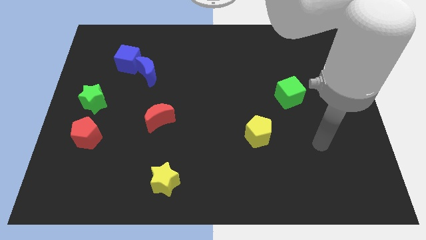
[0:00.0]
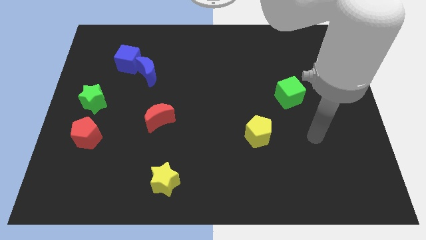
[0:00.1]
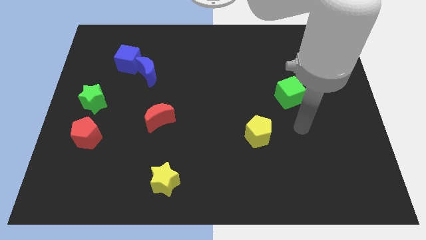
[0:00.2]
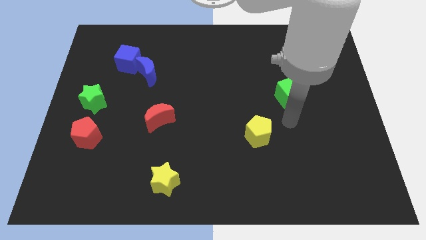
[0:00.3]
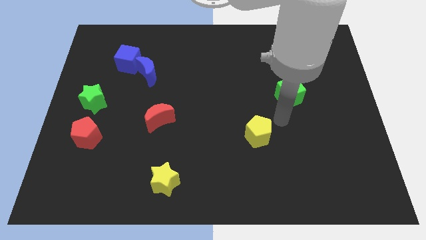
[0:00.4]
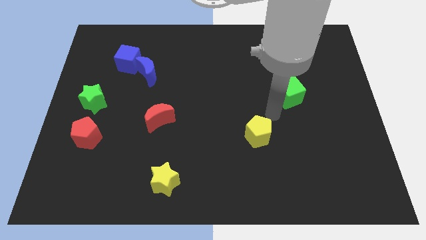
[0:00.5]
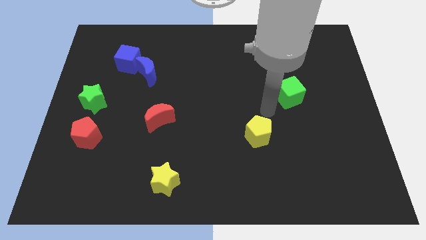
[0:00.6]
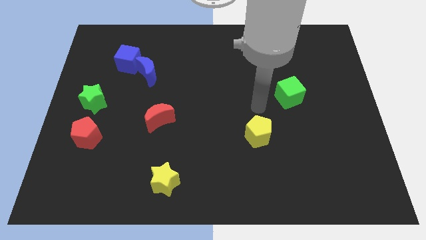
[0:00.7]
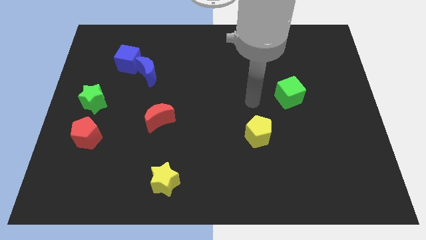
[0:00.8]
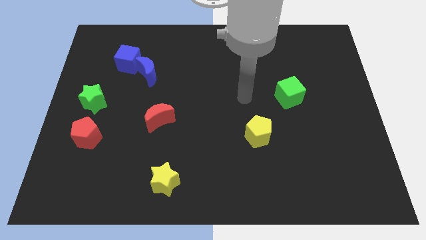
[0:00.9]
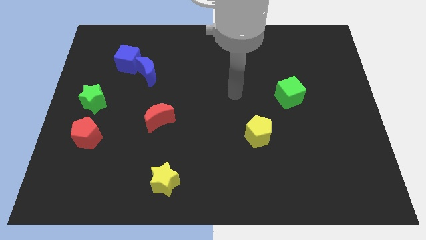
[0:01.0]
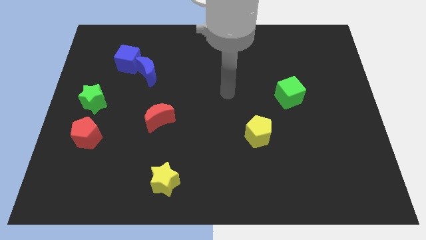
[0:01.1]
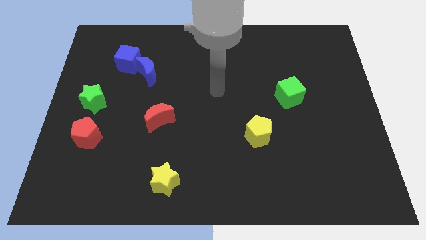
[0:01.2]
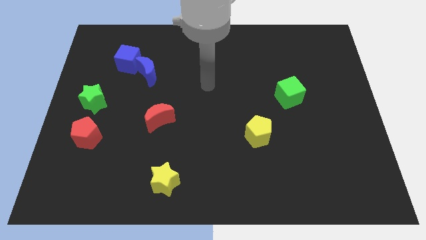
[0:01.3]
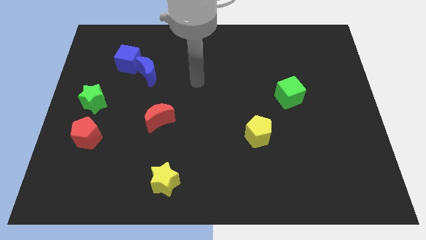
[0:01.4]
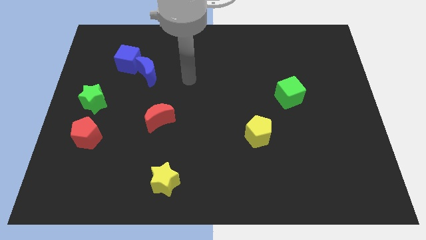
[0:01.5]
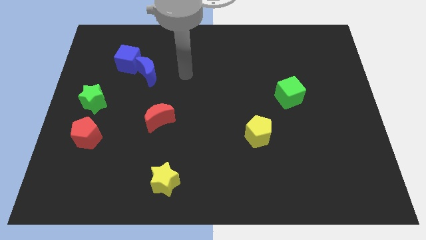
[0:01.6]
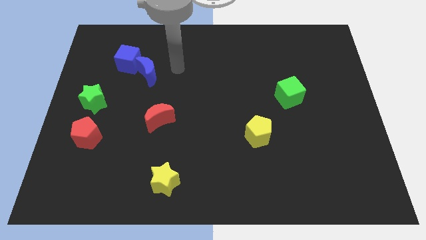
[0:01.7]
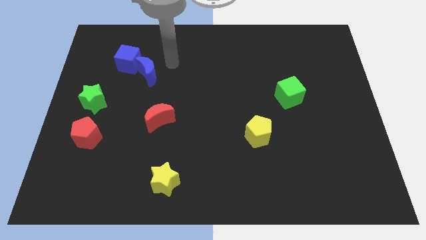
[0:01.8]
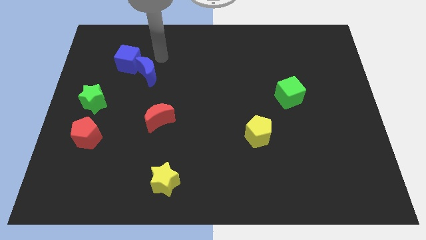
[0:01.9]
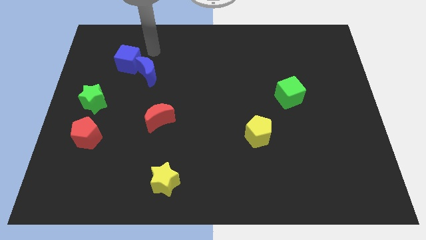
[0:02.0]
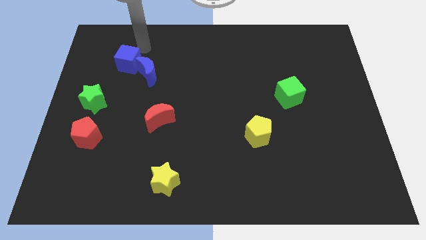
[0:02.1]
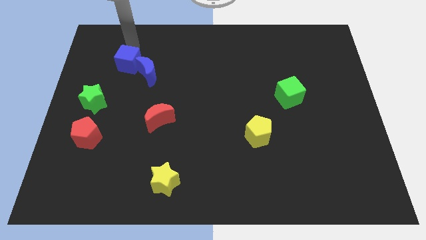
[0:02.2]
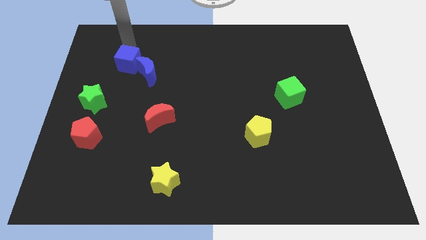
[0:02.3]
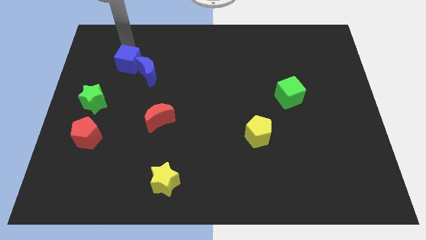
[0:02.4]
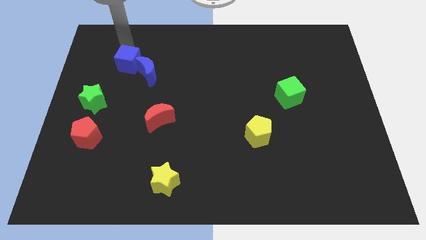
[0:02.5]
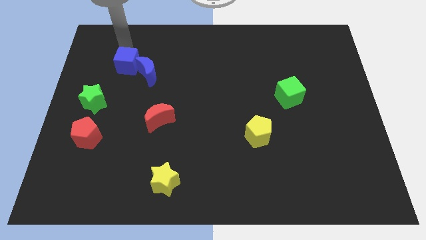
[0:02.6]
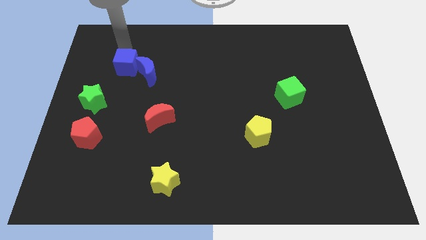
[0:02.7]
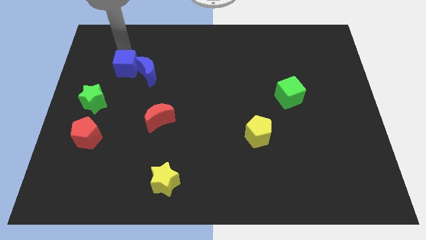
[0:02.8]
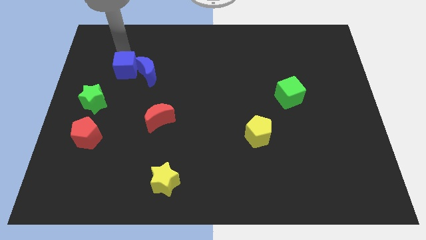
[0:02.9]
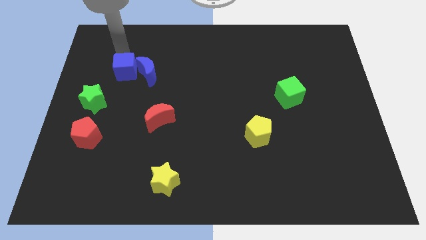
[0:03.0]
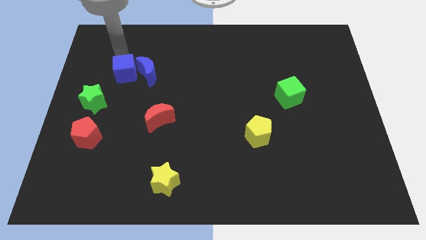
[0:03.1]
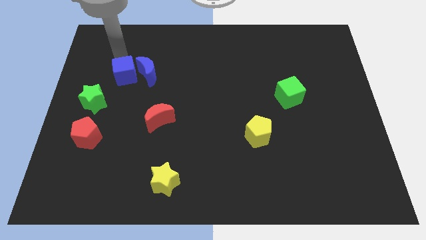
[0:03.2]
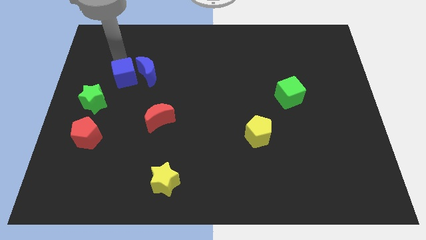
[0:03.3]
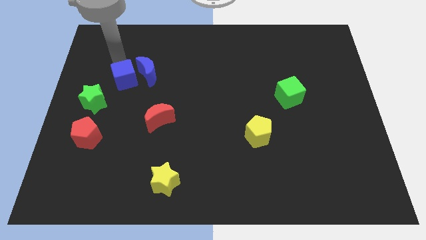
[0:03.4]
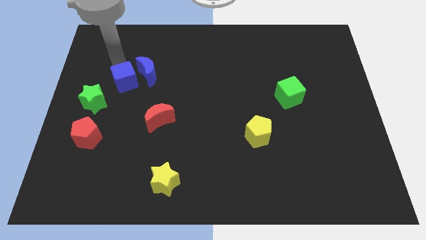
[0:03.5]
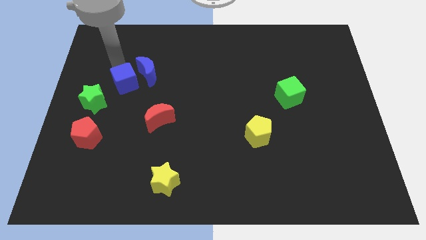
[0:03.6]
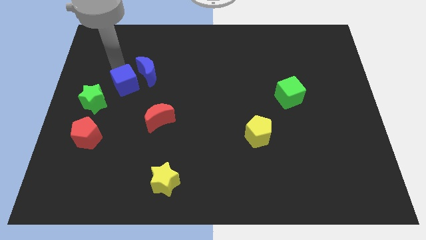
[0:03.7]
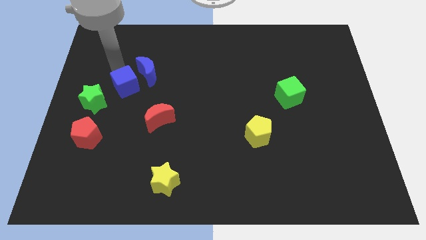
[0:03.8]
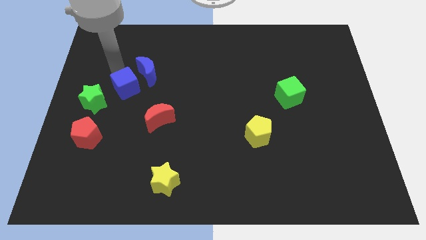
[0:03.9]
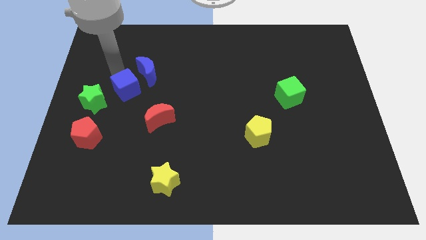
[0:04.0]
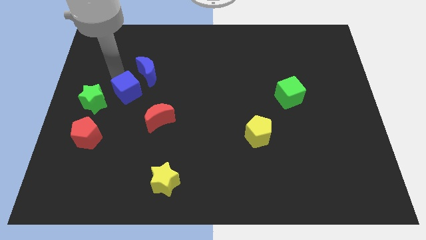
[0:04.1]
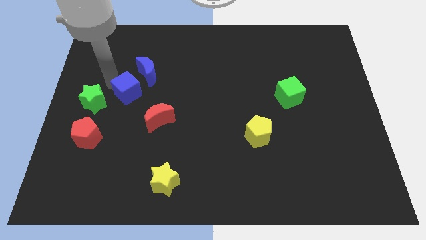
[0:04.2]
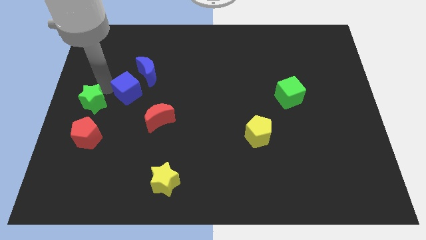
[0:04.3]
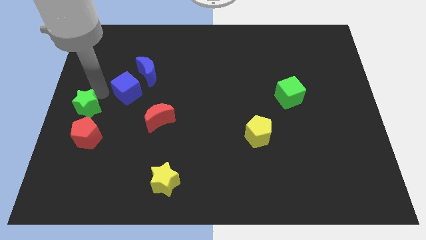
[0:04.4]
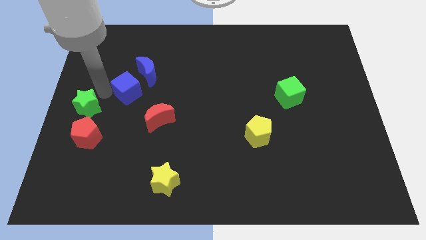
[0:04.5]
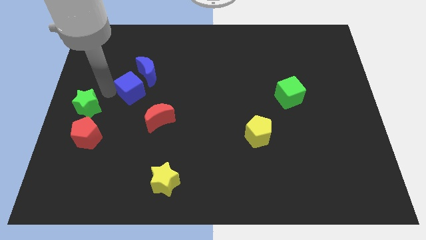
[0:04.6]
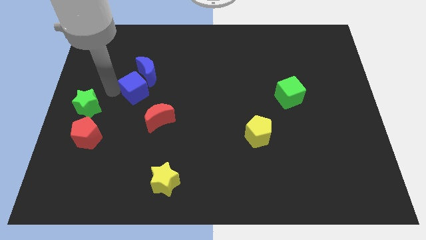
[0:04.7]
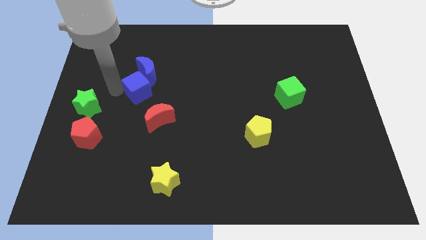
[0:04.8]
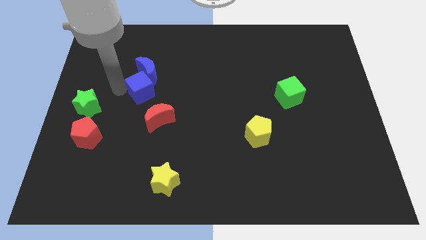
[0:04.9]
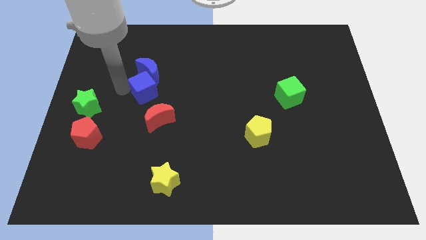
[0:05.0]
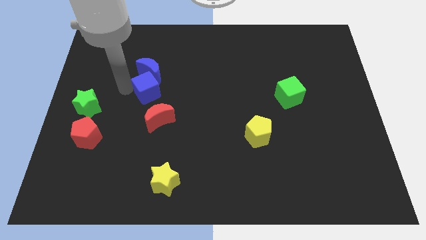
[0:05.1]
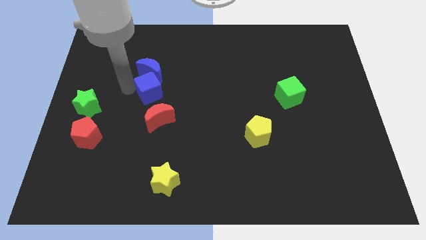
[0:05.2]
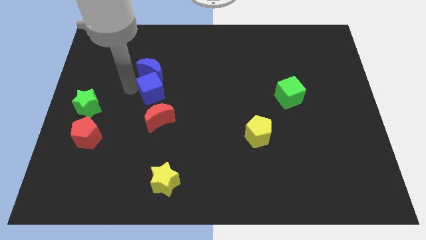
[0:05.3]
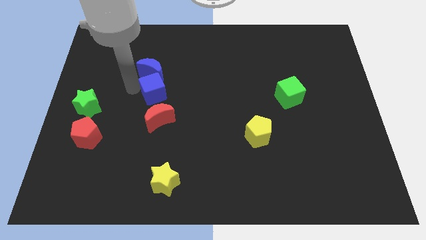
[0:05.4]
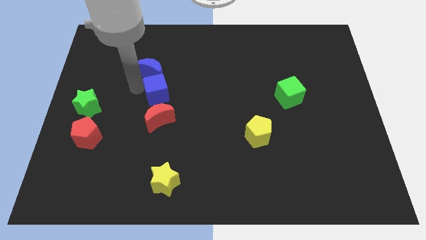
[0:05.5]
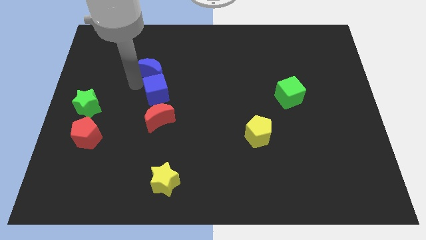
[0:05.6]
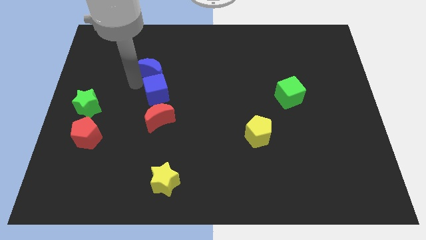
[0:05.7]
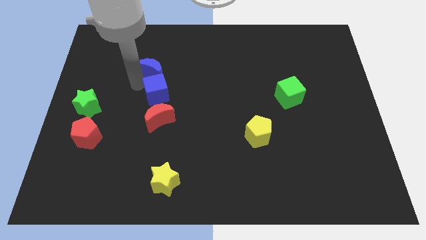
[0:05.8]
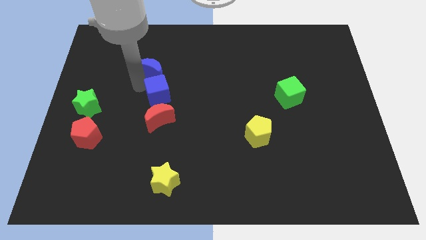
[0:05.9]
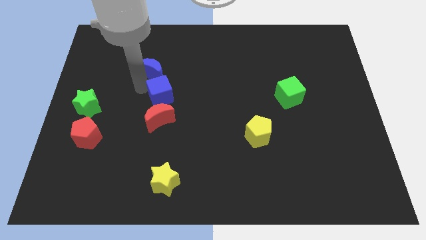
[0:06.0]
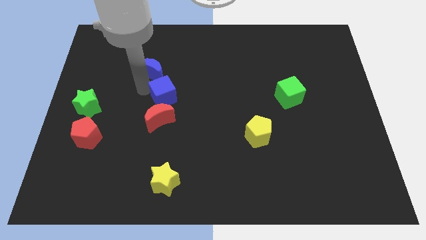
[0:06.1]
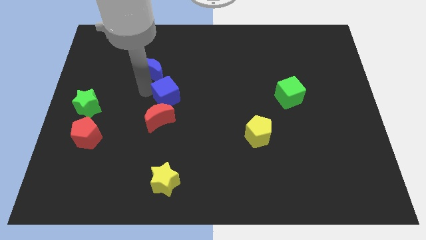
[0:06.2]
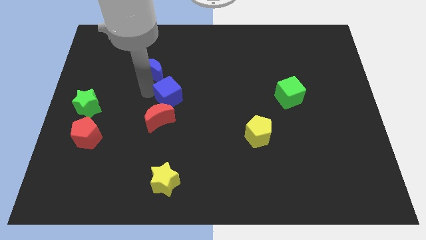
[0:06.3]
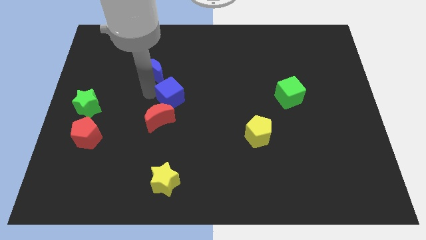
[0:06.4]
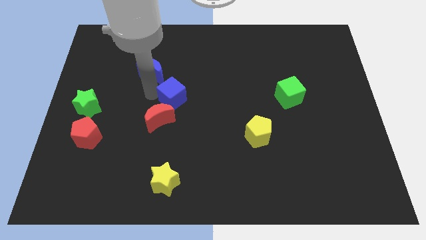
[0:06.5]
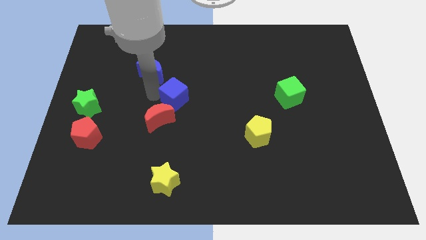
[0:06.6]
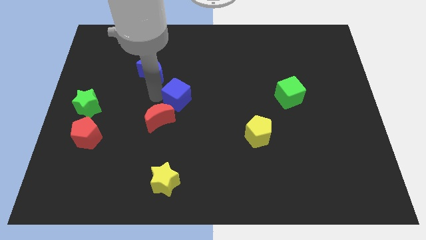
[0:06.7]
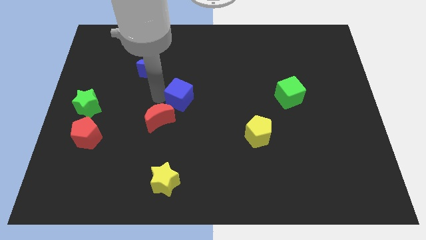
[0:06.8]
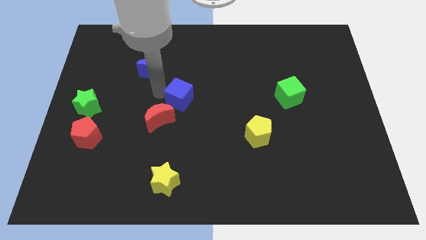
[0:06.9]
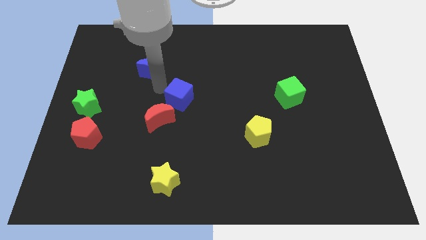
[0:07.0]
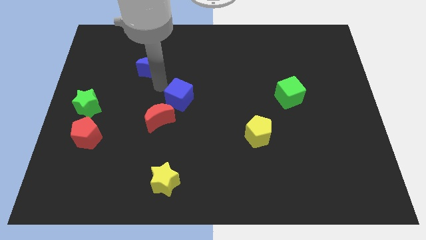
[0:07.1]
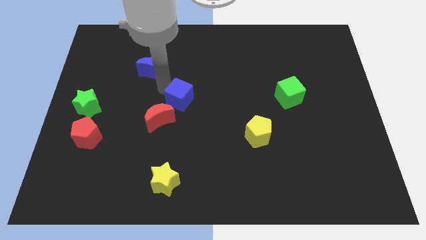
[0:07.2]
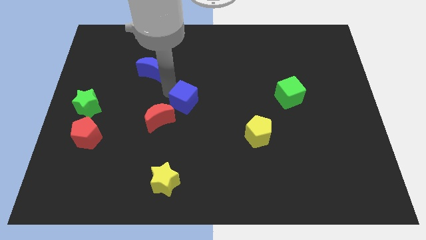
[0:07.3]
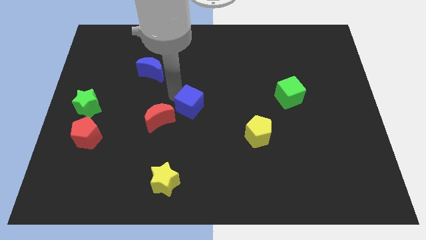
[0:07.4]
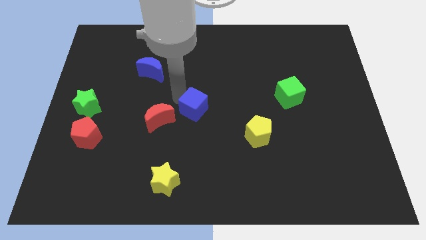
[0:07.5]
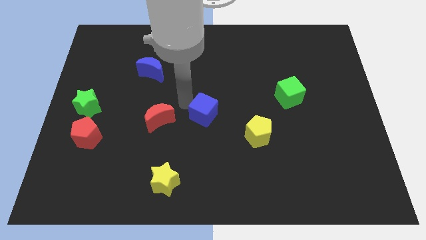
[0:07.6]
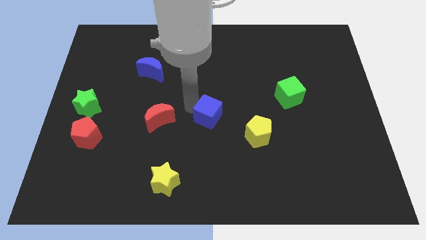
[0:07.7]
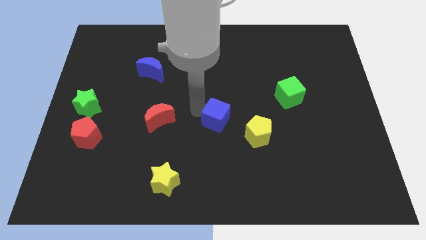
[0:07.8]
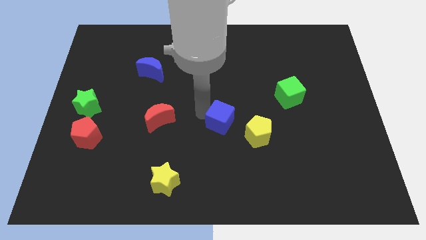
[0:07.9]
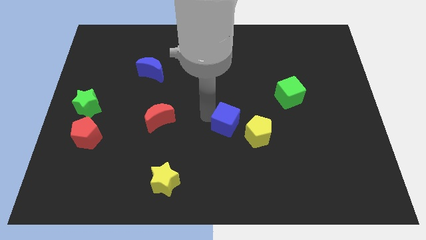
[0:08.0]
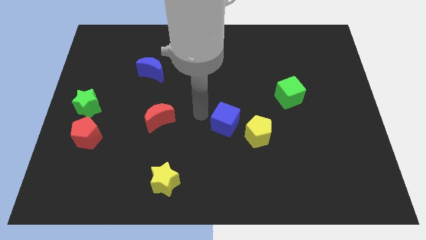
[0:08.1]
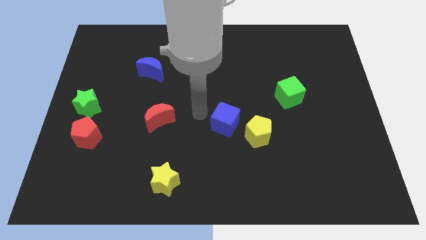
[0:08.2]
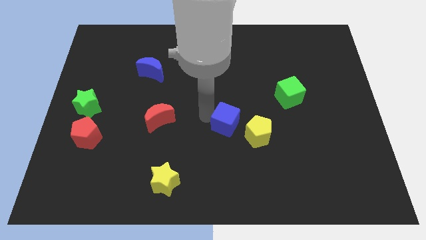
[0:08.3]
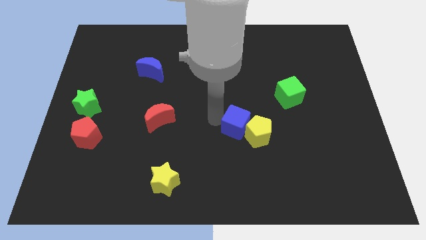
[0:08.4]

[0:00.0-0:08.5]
slide the blue cube to the yellow pentagon
